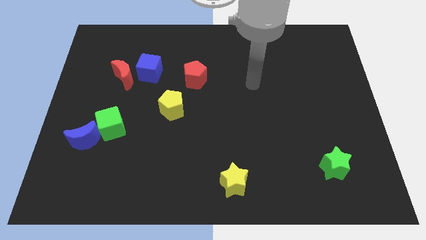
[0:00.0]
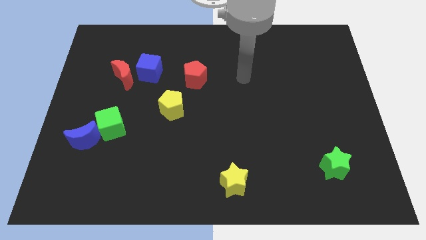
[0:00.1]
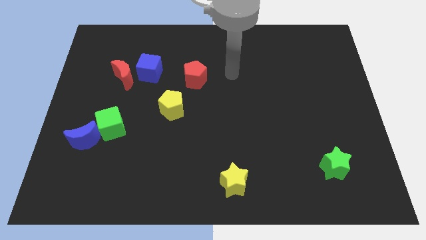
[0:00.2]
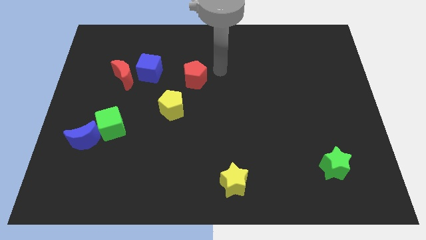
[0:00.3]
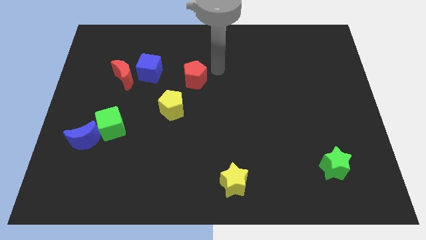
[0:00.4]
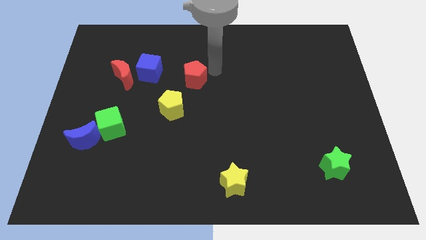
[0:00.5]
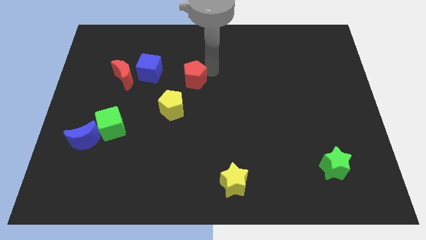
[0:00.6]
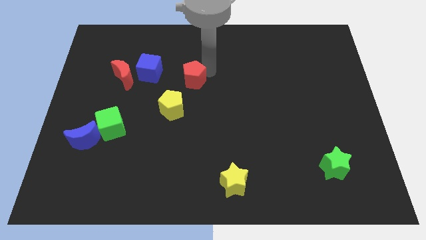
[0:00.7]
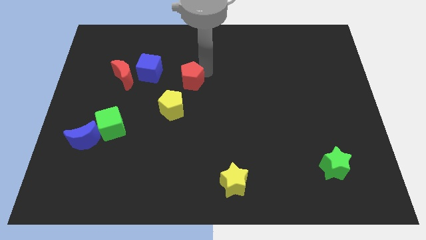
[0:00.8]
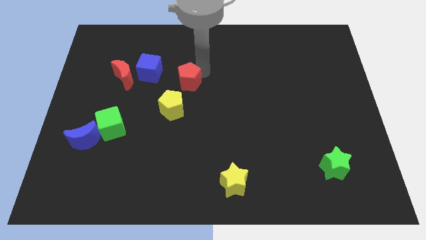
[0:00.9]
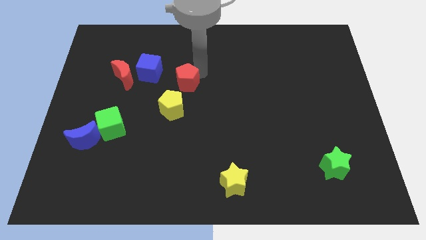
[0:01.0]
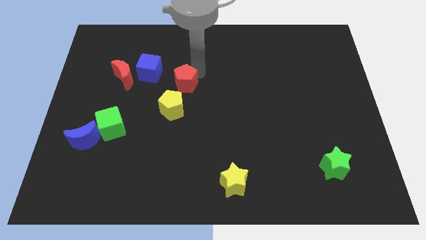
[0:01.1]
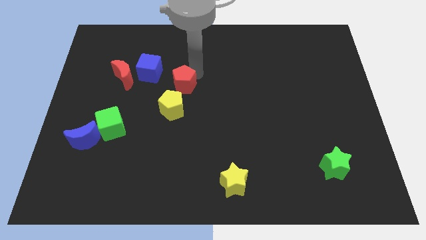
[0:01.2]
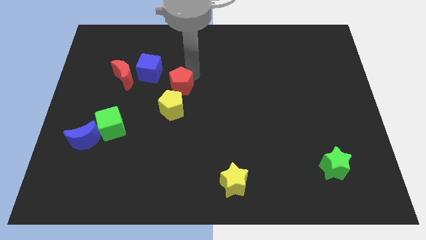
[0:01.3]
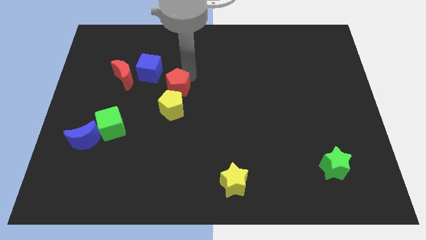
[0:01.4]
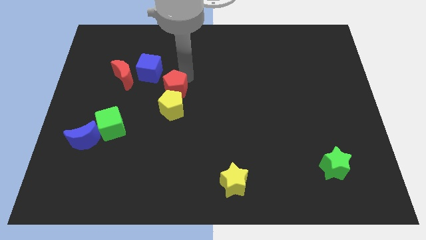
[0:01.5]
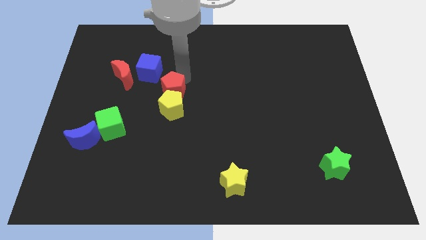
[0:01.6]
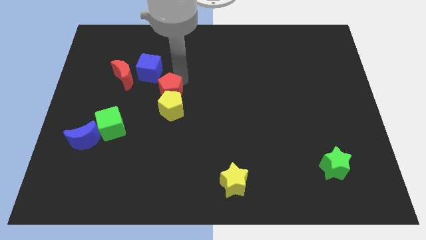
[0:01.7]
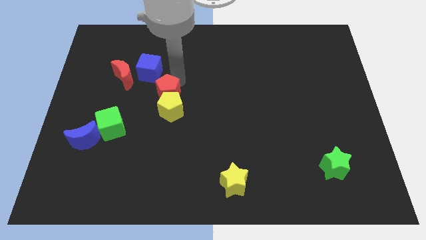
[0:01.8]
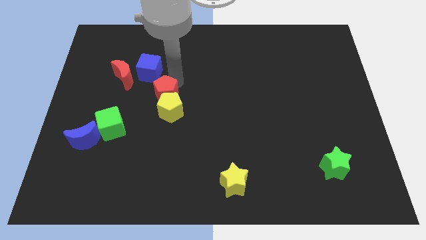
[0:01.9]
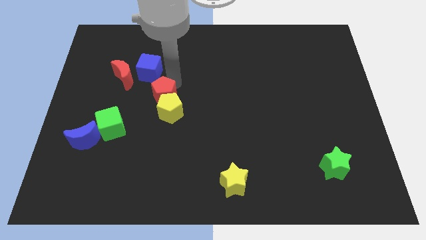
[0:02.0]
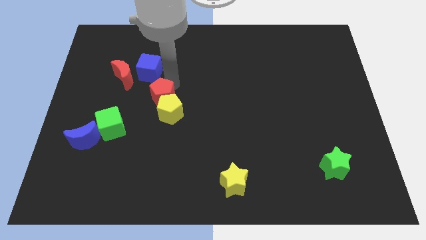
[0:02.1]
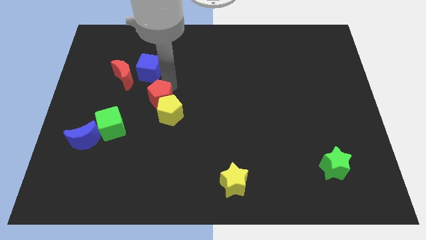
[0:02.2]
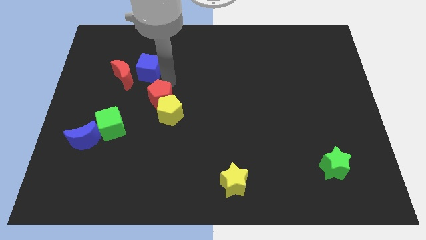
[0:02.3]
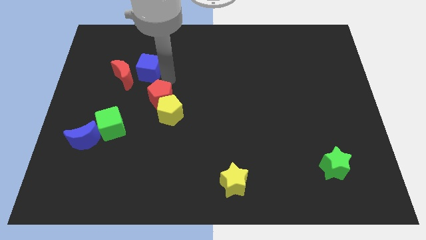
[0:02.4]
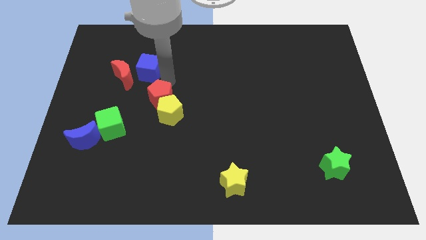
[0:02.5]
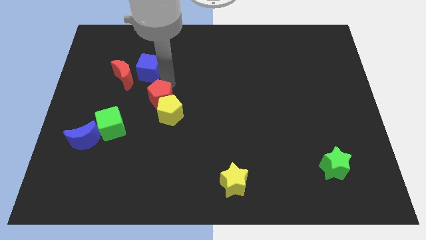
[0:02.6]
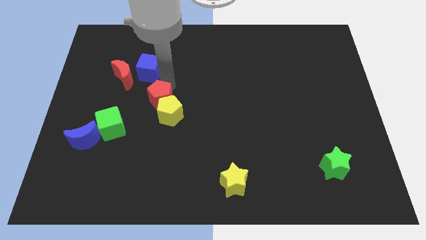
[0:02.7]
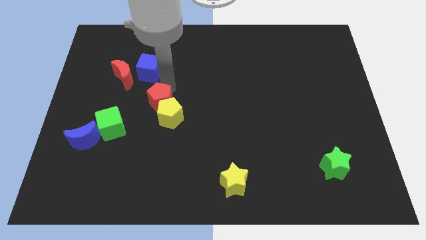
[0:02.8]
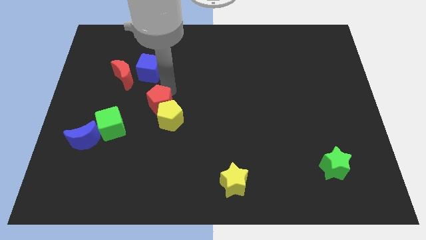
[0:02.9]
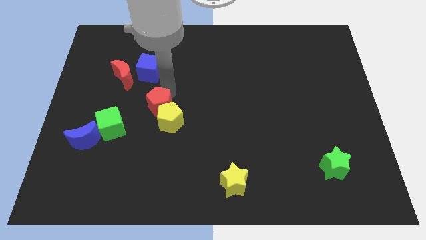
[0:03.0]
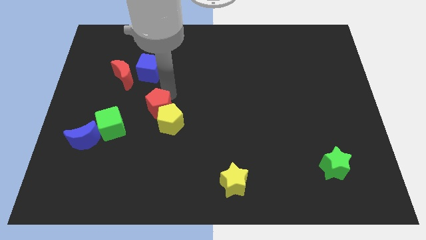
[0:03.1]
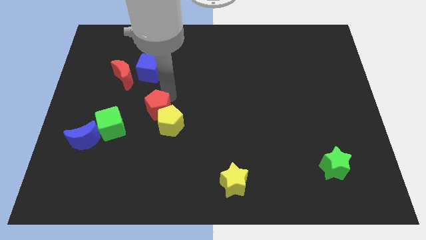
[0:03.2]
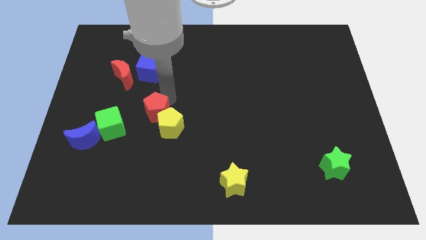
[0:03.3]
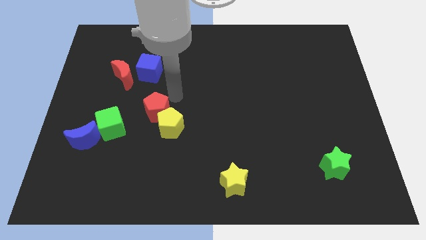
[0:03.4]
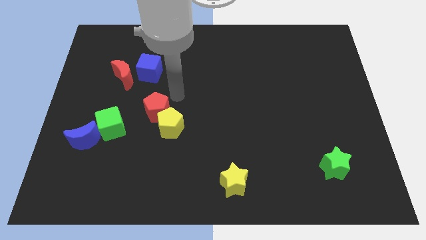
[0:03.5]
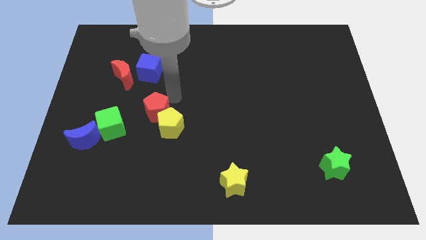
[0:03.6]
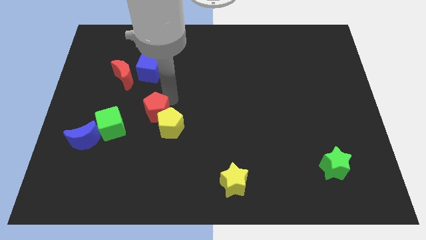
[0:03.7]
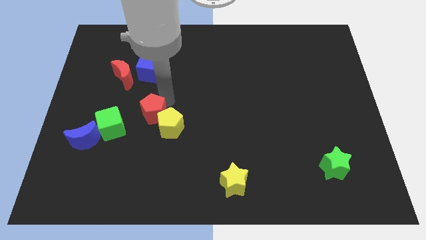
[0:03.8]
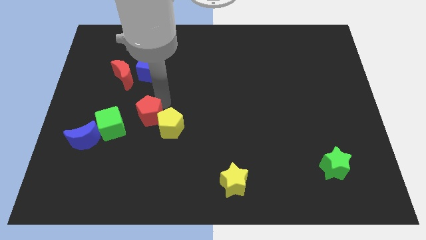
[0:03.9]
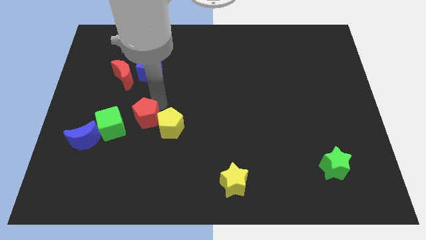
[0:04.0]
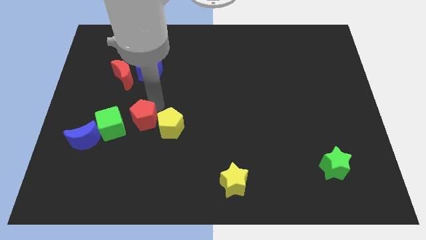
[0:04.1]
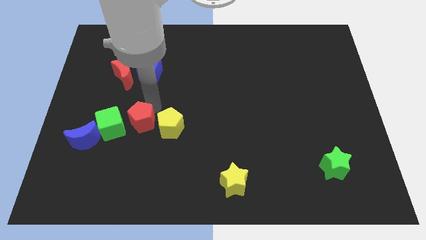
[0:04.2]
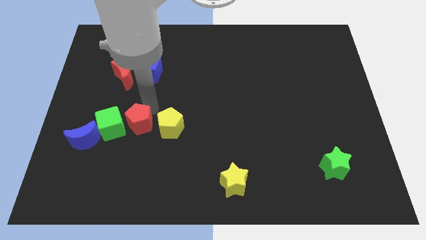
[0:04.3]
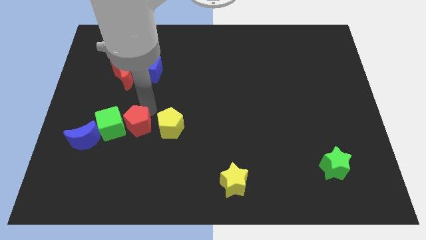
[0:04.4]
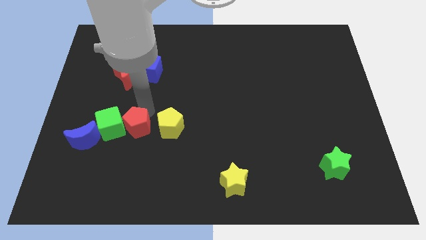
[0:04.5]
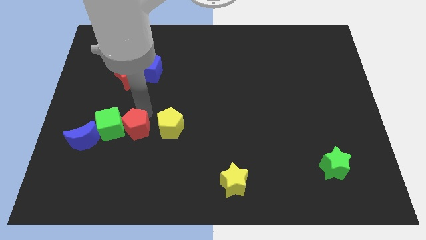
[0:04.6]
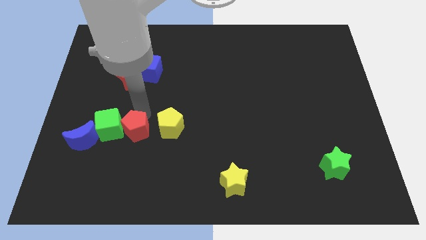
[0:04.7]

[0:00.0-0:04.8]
slide the red pentagon downwards and to the left

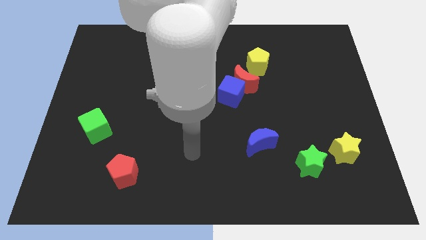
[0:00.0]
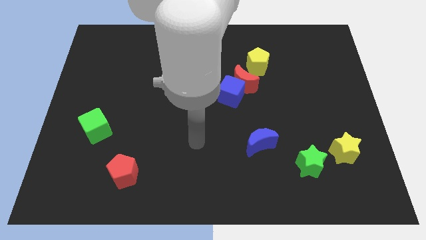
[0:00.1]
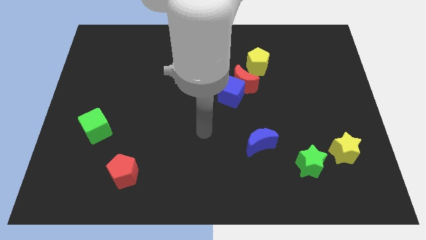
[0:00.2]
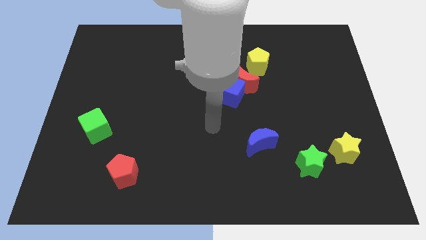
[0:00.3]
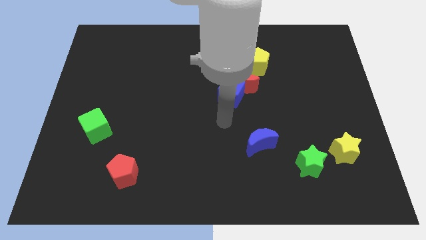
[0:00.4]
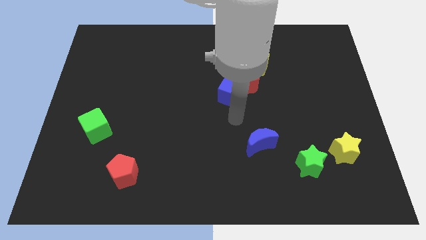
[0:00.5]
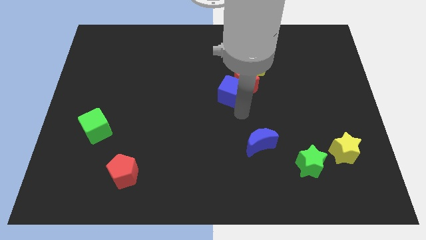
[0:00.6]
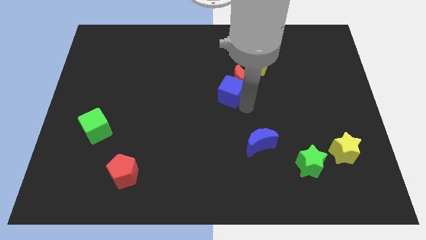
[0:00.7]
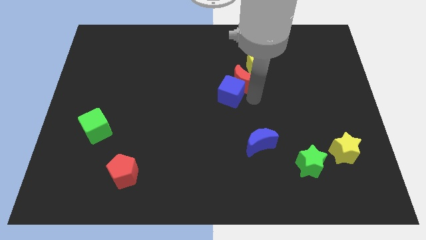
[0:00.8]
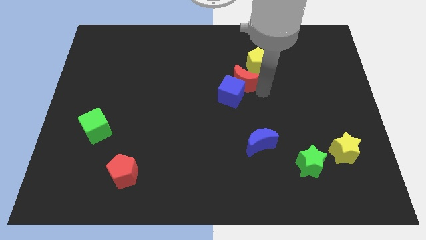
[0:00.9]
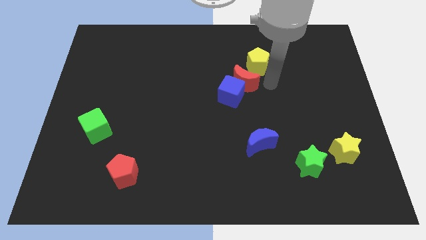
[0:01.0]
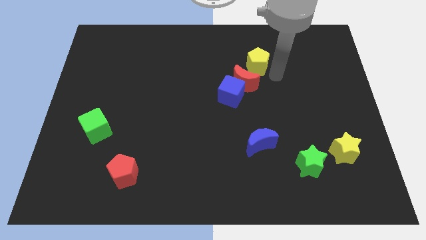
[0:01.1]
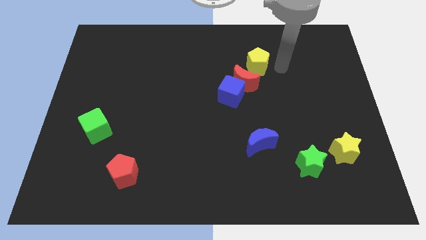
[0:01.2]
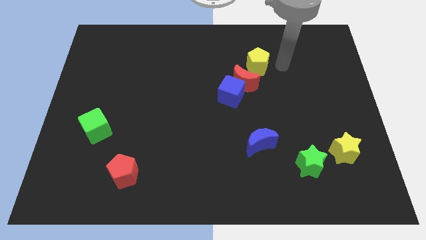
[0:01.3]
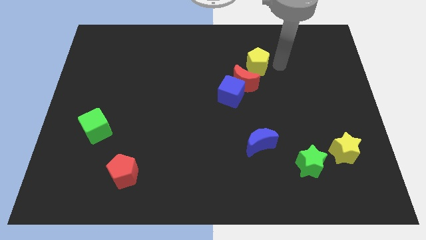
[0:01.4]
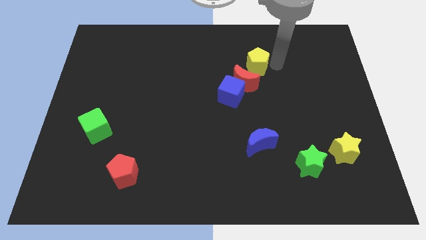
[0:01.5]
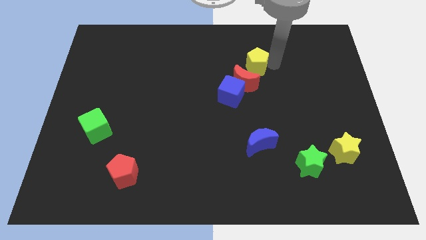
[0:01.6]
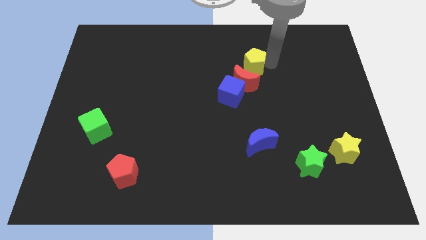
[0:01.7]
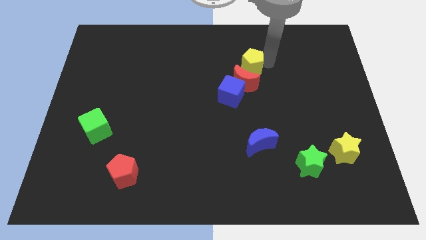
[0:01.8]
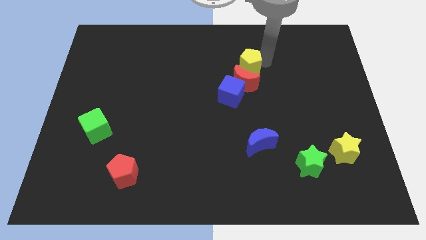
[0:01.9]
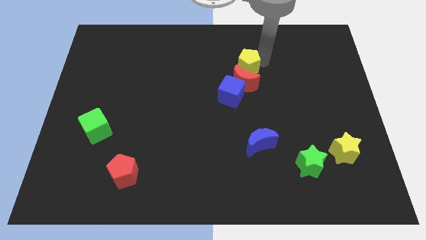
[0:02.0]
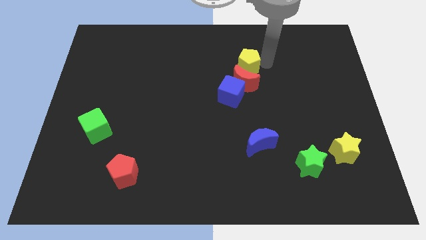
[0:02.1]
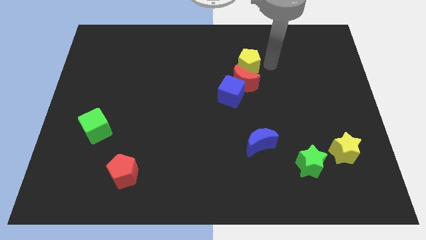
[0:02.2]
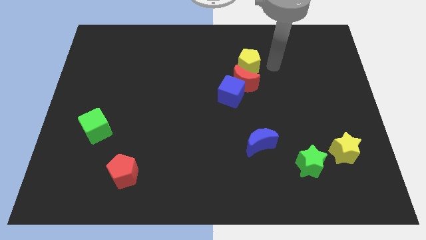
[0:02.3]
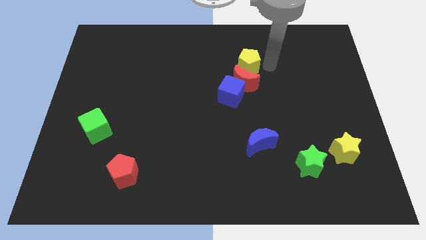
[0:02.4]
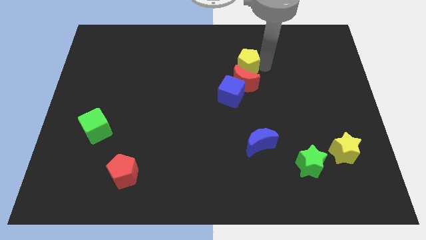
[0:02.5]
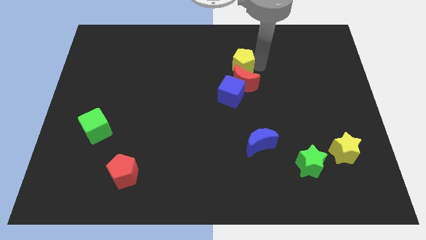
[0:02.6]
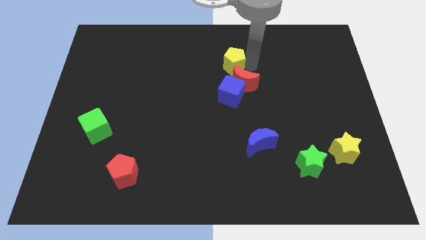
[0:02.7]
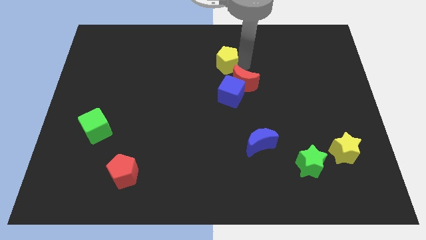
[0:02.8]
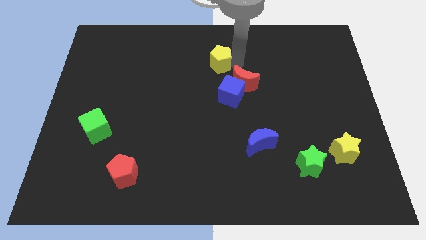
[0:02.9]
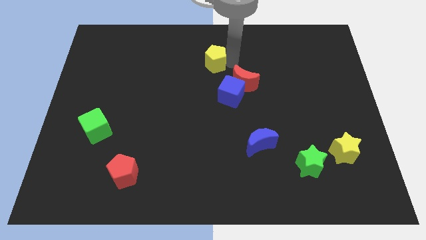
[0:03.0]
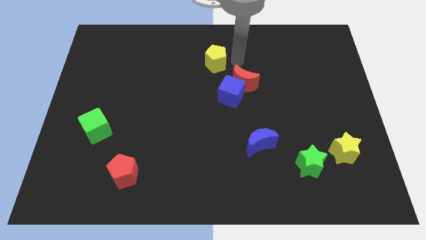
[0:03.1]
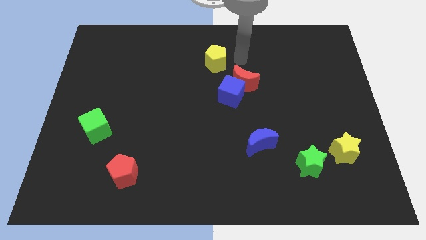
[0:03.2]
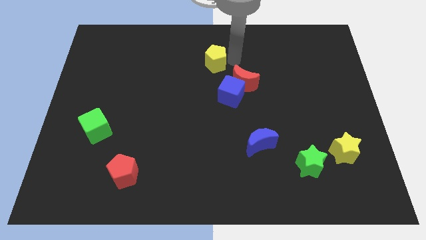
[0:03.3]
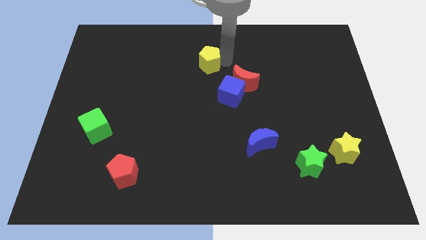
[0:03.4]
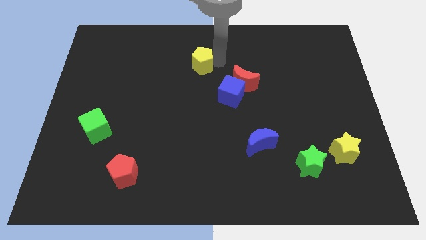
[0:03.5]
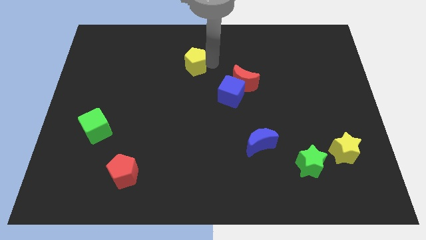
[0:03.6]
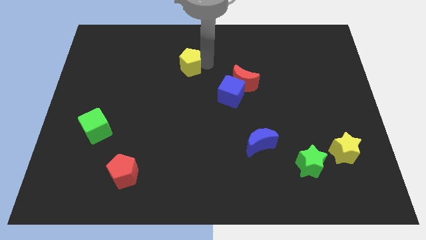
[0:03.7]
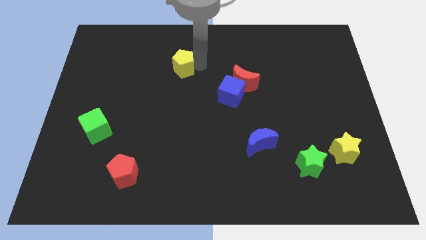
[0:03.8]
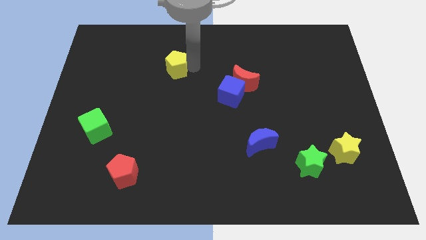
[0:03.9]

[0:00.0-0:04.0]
move the yellow pentagon to the left
